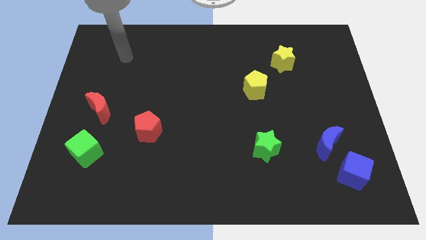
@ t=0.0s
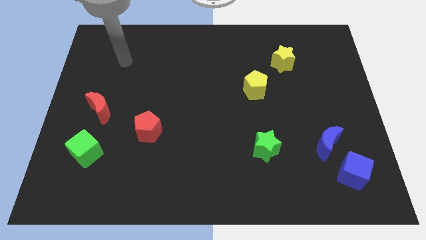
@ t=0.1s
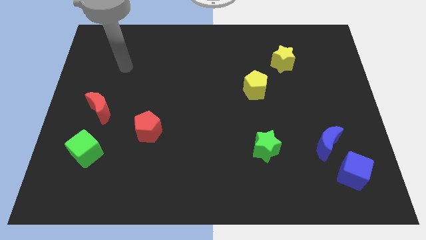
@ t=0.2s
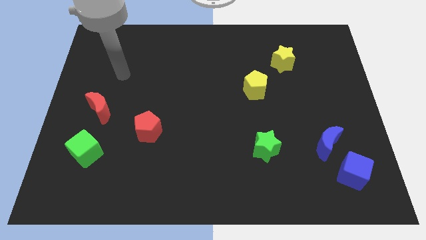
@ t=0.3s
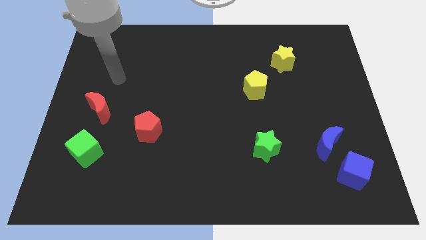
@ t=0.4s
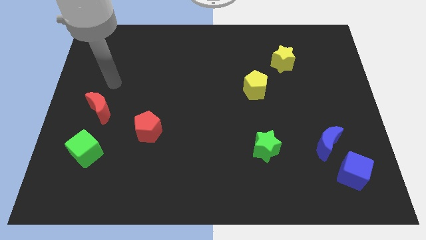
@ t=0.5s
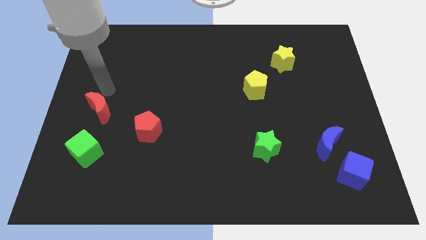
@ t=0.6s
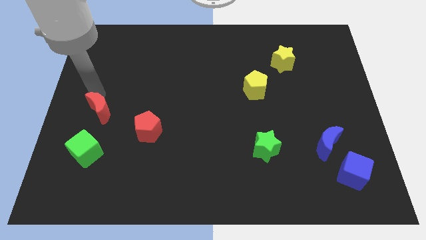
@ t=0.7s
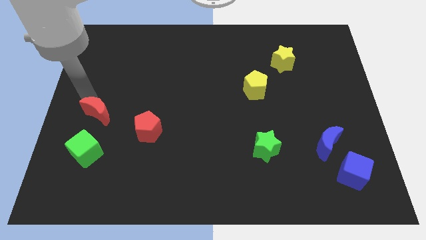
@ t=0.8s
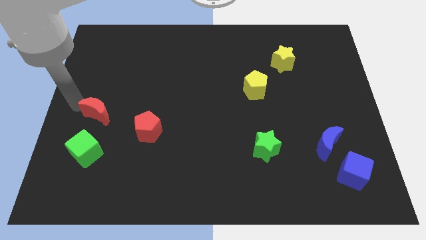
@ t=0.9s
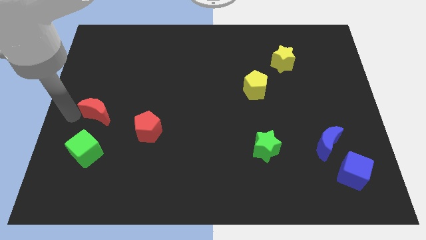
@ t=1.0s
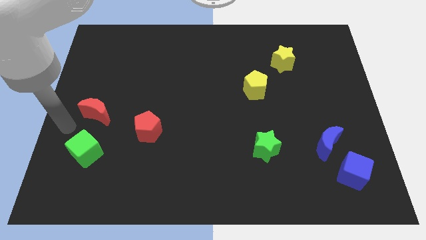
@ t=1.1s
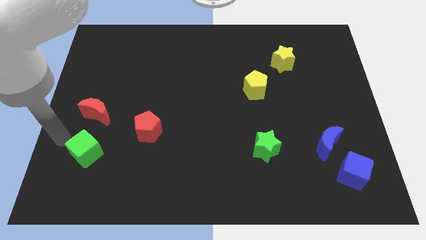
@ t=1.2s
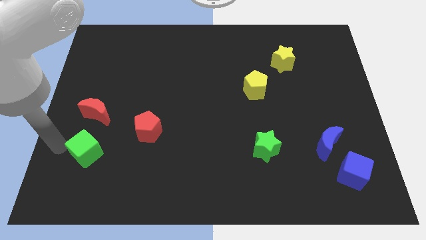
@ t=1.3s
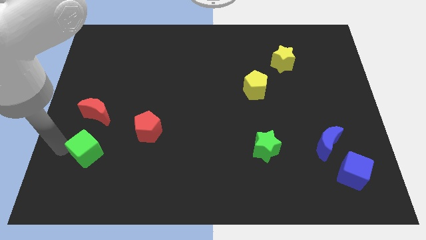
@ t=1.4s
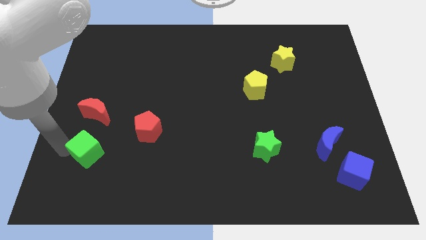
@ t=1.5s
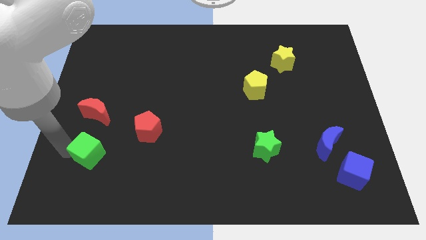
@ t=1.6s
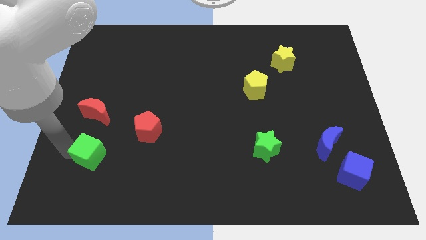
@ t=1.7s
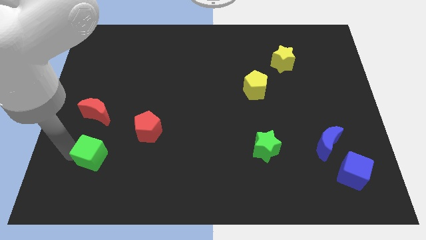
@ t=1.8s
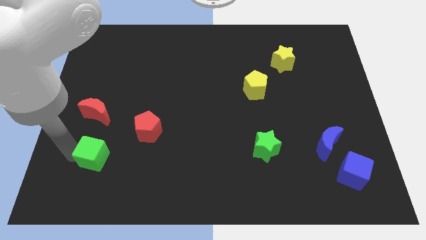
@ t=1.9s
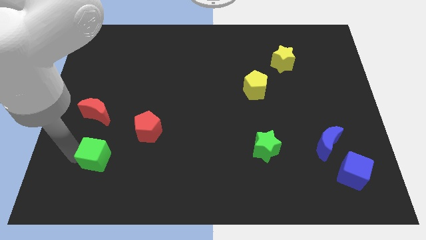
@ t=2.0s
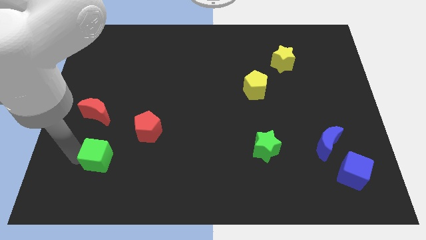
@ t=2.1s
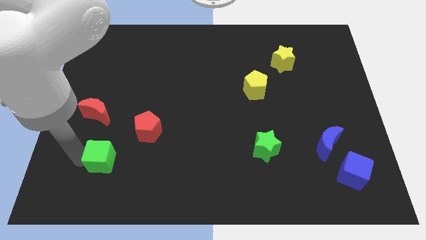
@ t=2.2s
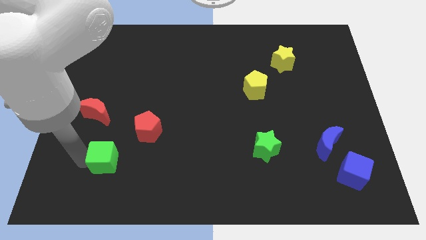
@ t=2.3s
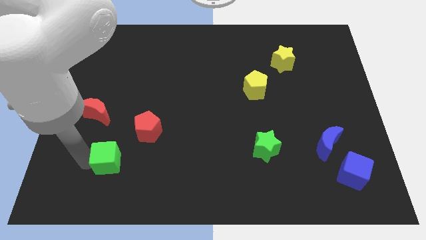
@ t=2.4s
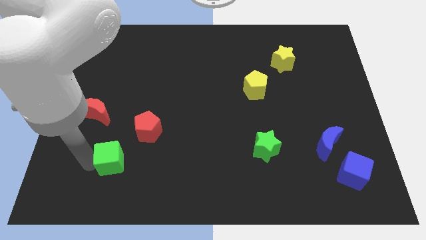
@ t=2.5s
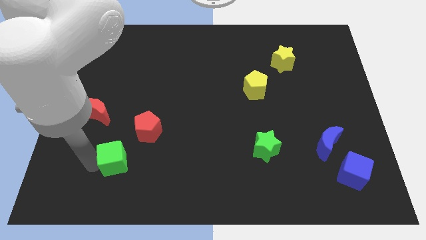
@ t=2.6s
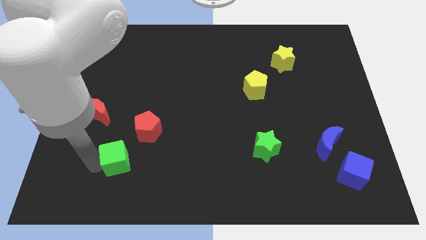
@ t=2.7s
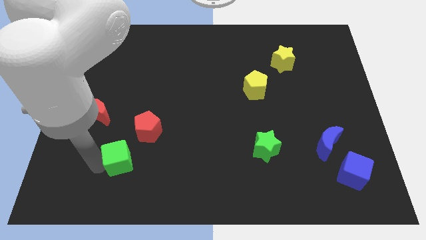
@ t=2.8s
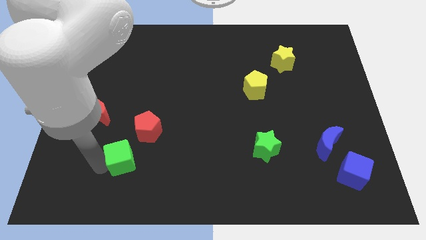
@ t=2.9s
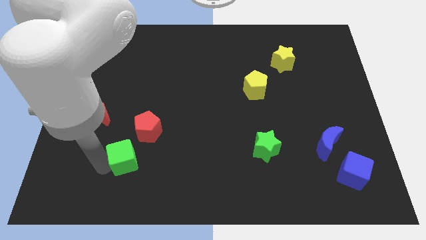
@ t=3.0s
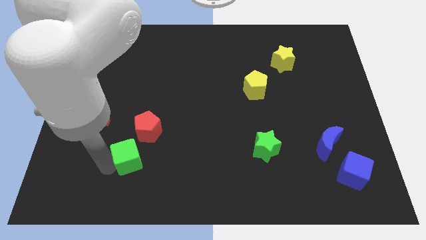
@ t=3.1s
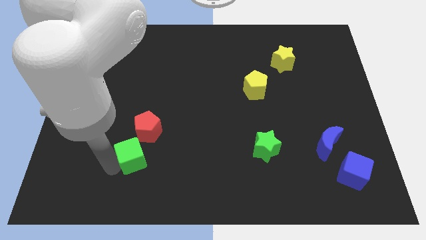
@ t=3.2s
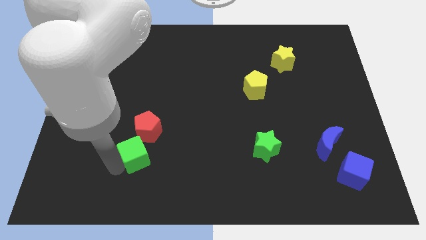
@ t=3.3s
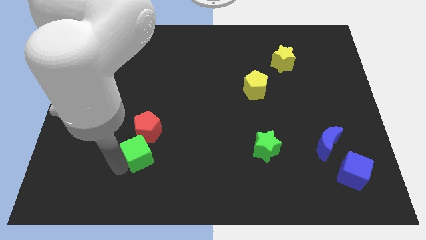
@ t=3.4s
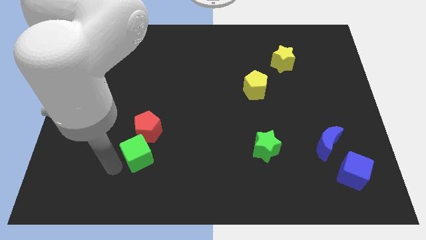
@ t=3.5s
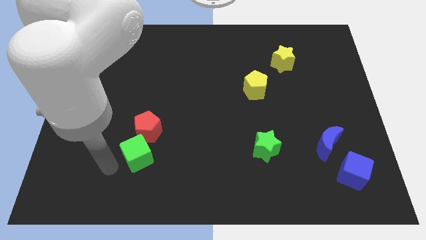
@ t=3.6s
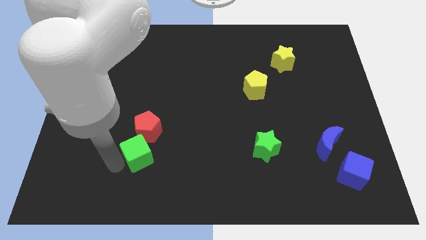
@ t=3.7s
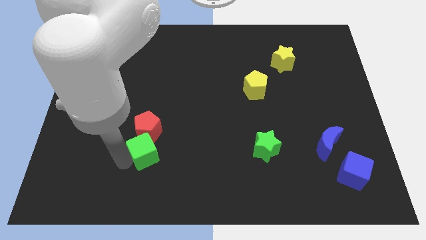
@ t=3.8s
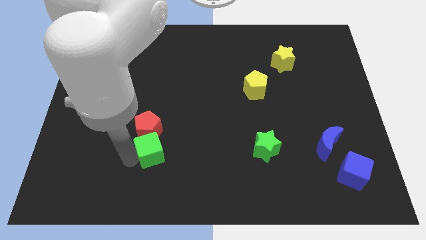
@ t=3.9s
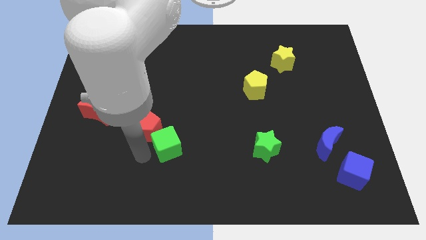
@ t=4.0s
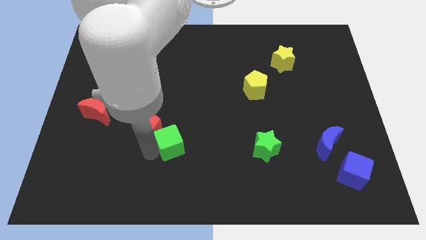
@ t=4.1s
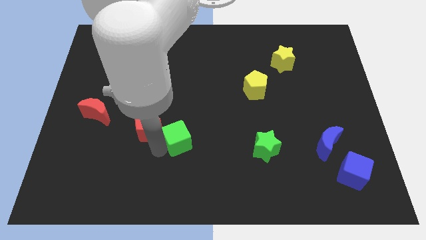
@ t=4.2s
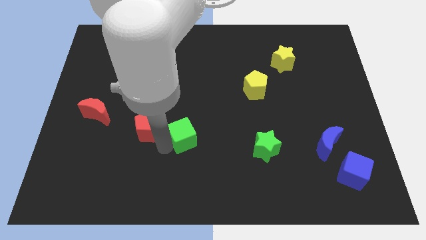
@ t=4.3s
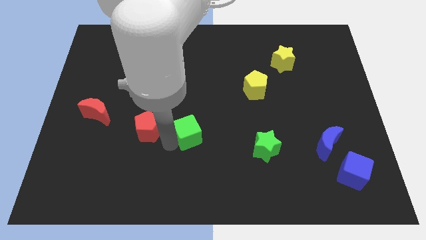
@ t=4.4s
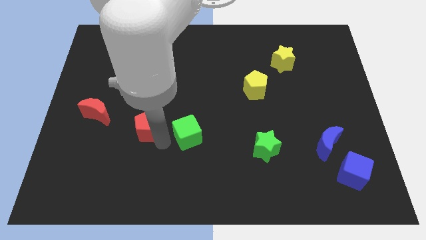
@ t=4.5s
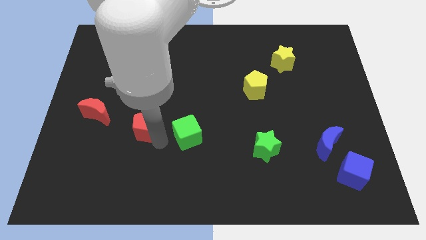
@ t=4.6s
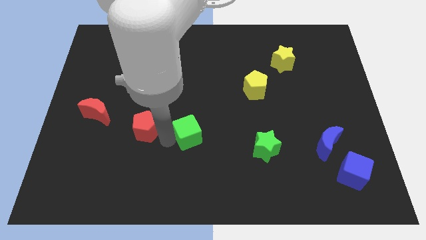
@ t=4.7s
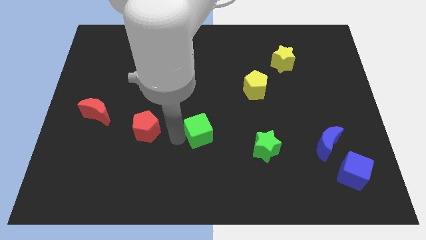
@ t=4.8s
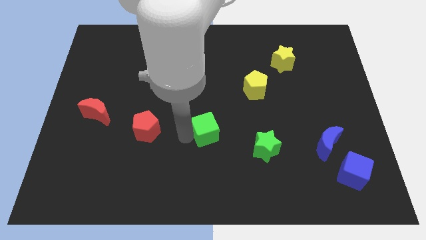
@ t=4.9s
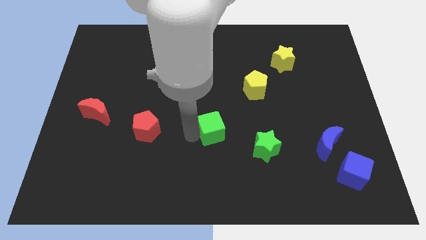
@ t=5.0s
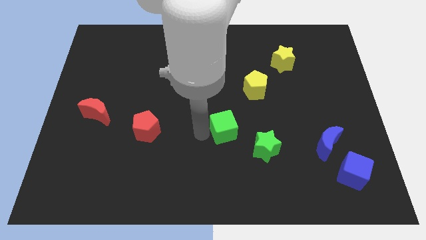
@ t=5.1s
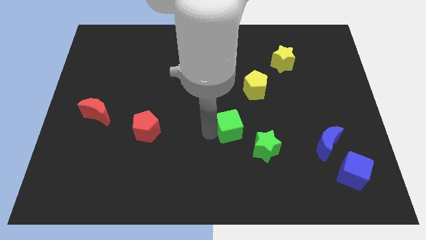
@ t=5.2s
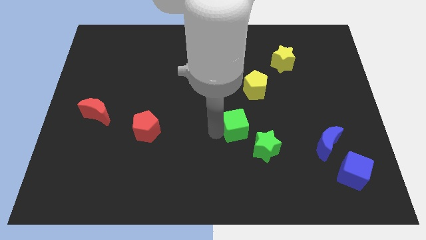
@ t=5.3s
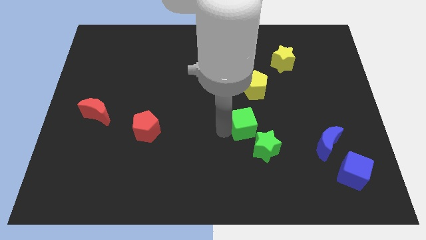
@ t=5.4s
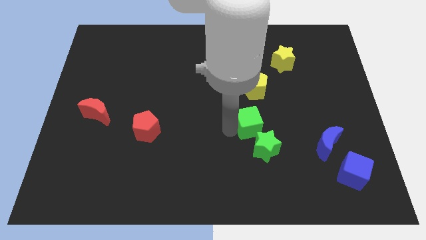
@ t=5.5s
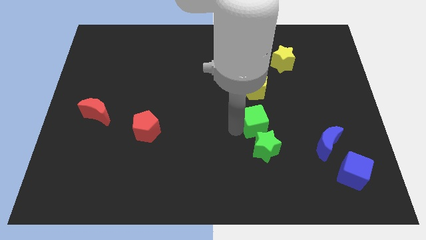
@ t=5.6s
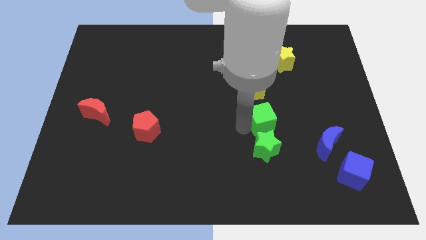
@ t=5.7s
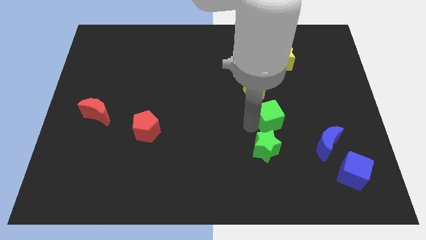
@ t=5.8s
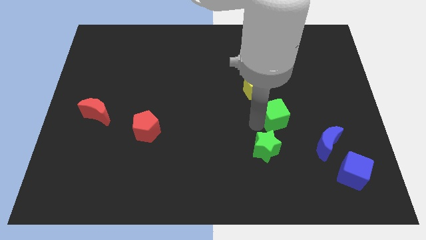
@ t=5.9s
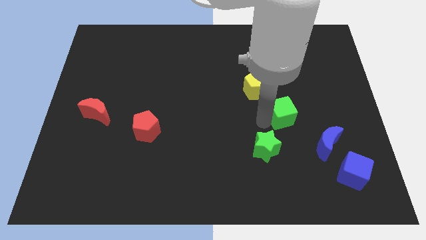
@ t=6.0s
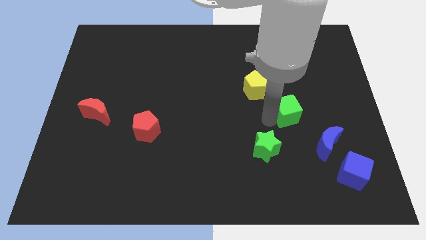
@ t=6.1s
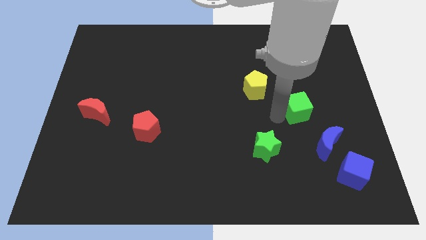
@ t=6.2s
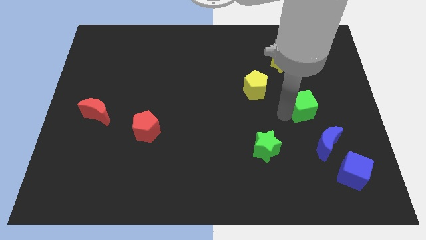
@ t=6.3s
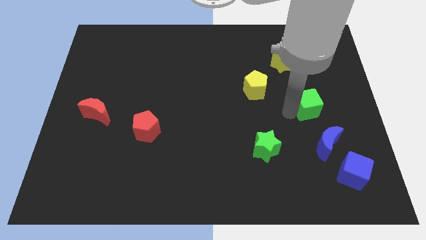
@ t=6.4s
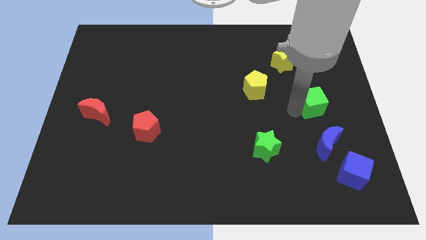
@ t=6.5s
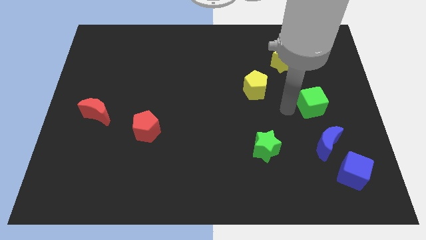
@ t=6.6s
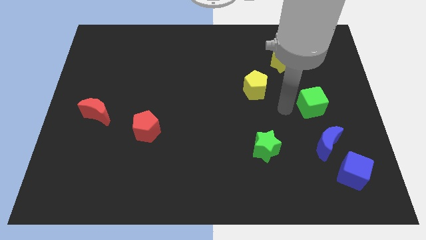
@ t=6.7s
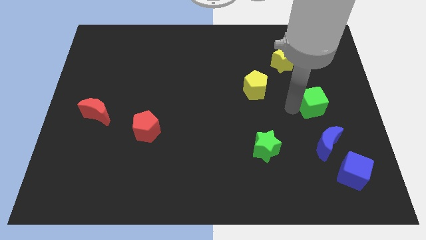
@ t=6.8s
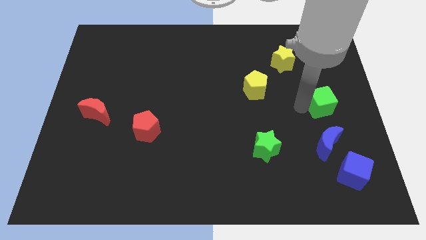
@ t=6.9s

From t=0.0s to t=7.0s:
push the green cube to the center right
